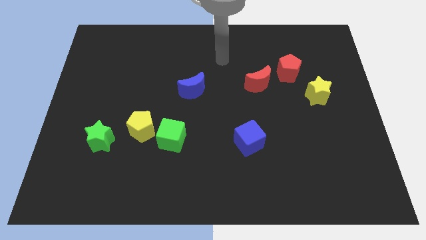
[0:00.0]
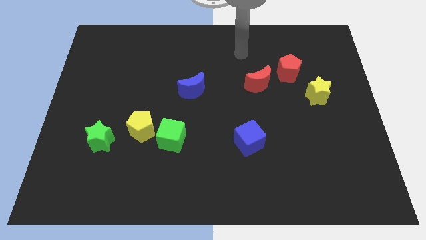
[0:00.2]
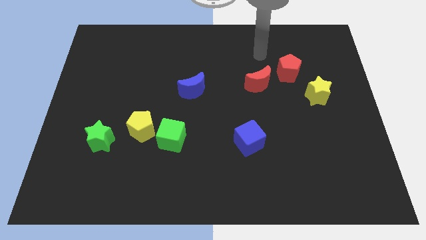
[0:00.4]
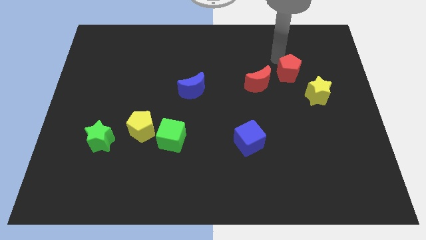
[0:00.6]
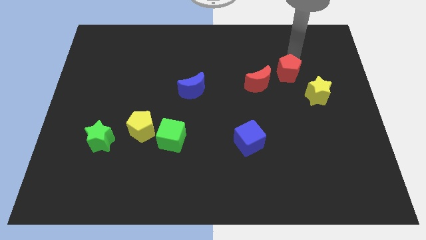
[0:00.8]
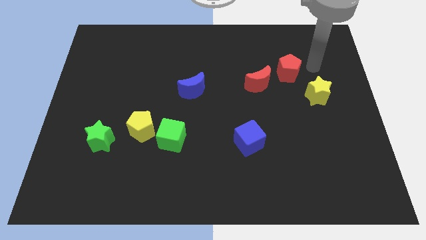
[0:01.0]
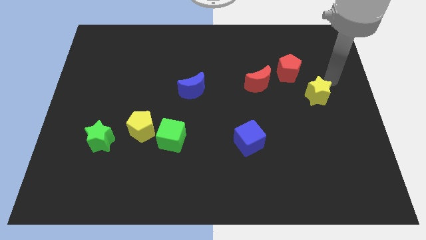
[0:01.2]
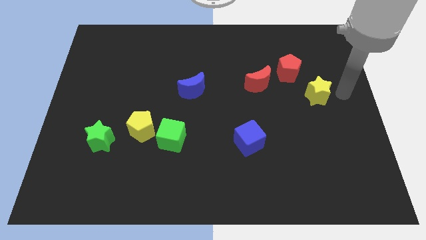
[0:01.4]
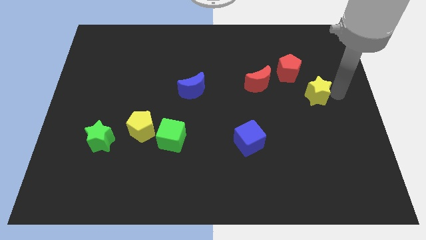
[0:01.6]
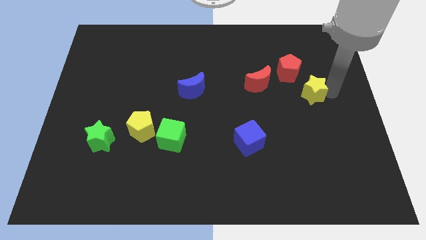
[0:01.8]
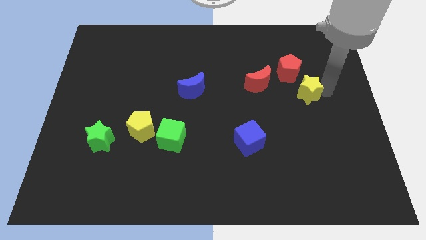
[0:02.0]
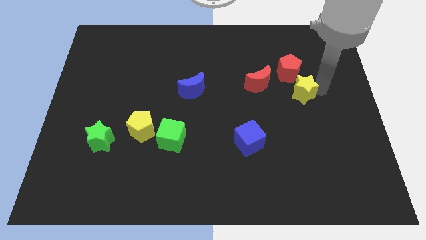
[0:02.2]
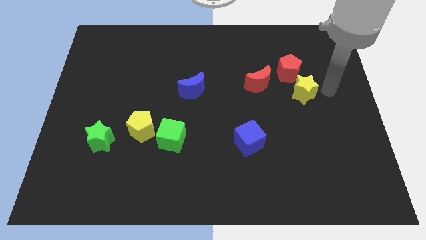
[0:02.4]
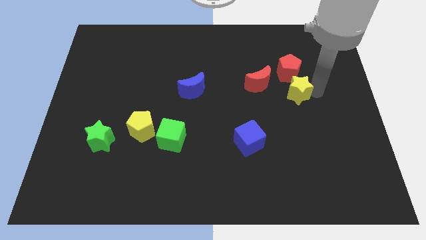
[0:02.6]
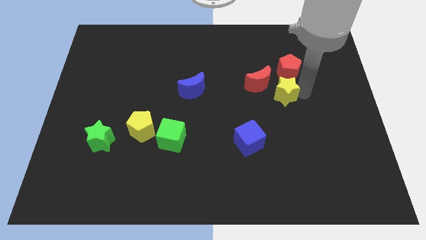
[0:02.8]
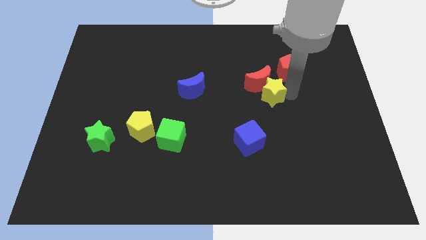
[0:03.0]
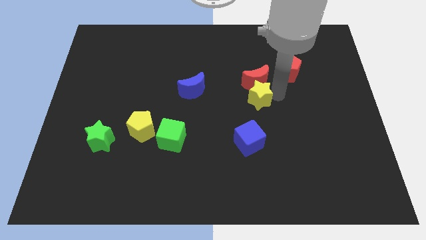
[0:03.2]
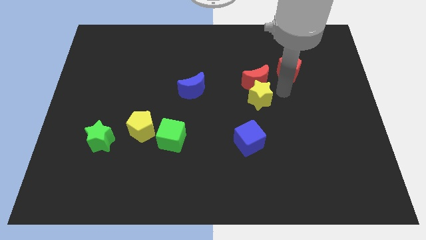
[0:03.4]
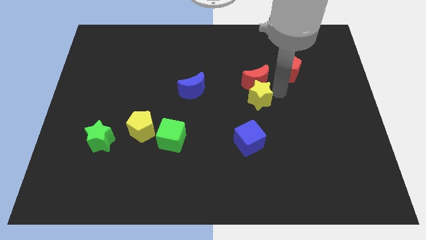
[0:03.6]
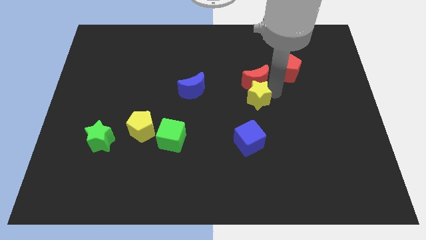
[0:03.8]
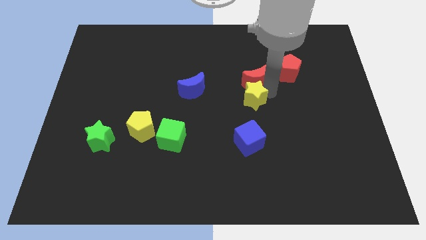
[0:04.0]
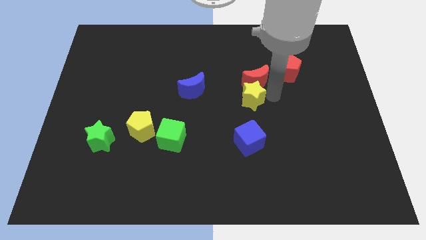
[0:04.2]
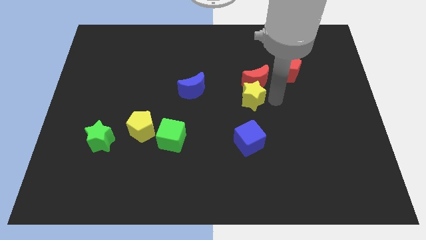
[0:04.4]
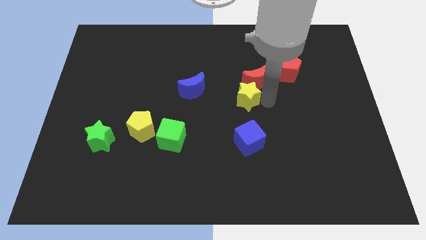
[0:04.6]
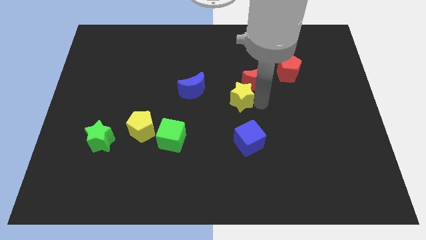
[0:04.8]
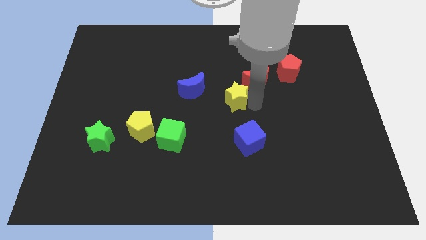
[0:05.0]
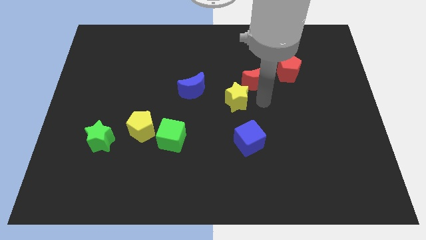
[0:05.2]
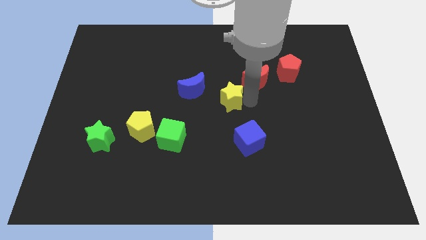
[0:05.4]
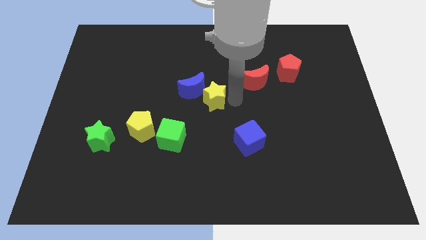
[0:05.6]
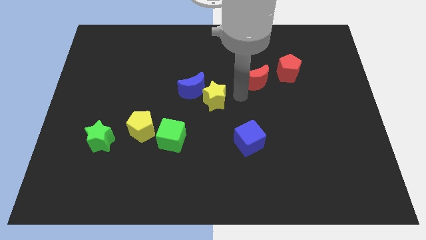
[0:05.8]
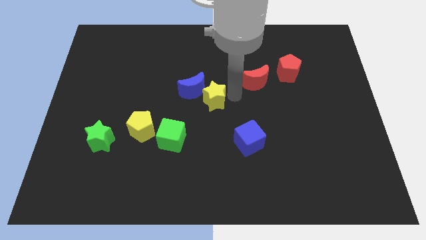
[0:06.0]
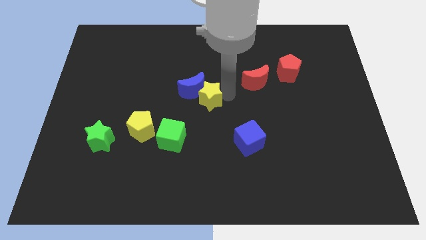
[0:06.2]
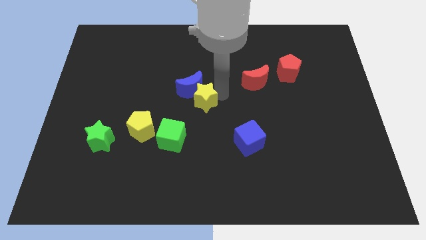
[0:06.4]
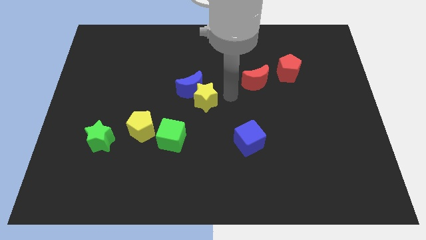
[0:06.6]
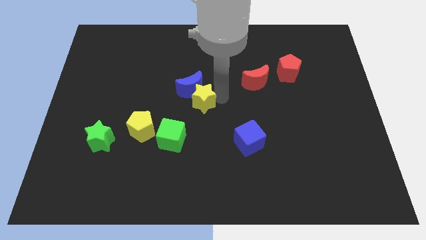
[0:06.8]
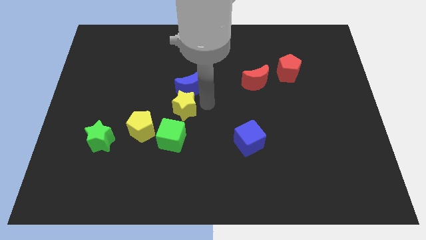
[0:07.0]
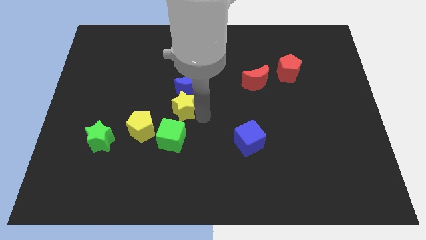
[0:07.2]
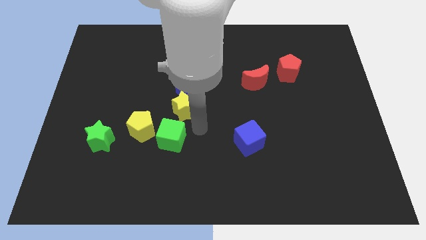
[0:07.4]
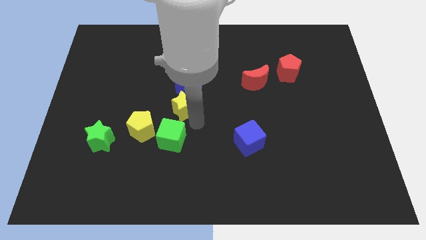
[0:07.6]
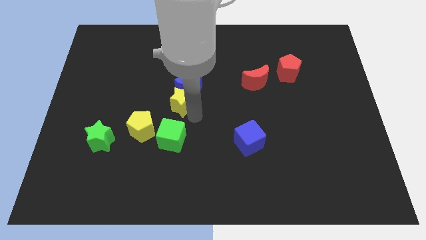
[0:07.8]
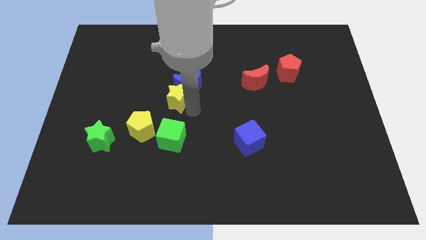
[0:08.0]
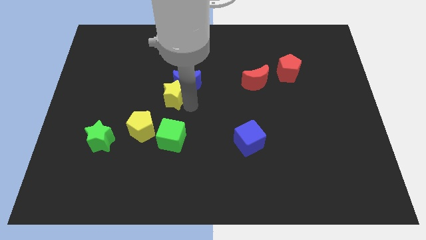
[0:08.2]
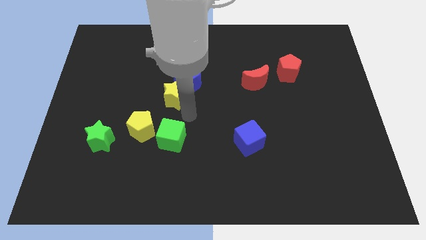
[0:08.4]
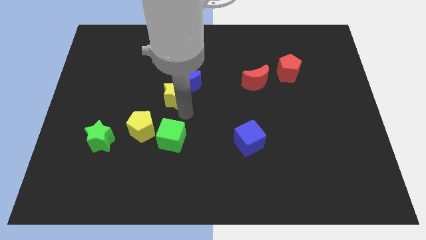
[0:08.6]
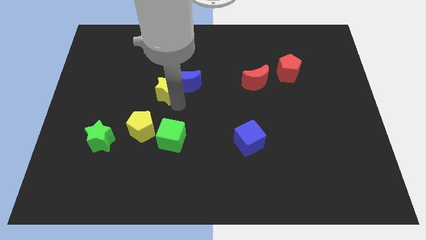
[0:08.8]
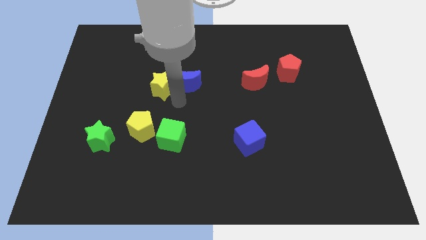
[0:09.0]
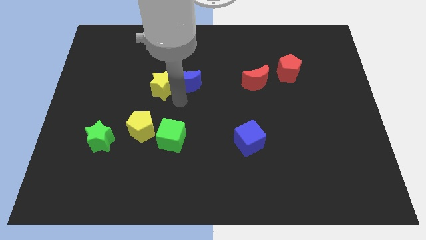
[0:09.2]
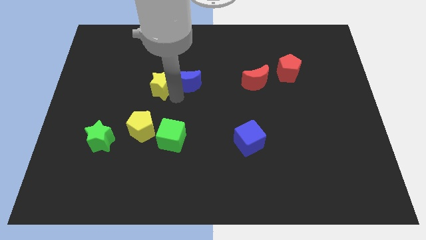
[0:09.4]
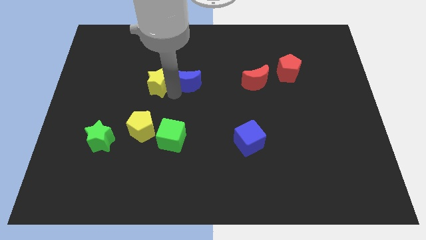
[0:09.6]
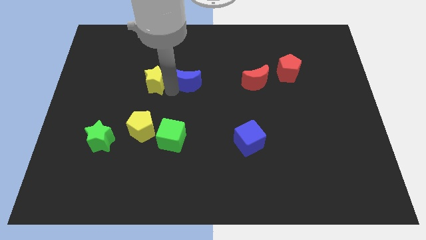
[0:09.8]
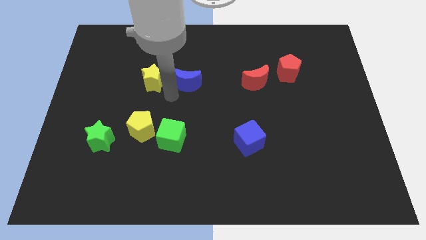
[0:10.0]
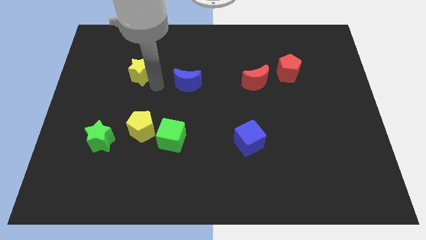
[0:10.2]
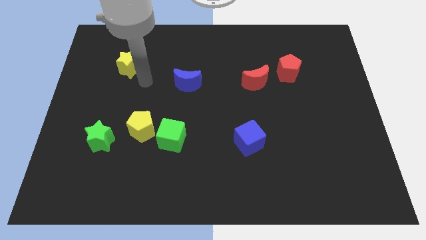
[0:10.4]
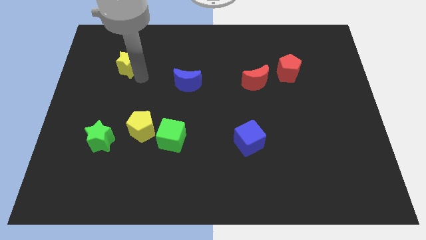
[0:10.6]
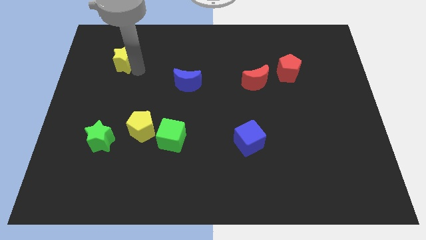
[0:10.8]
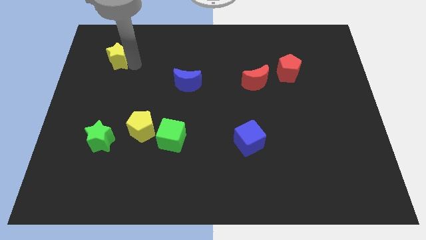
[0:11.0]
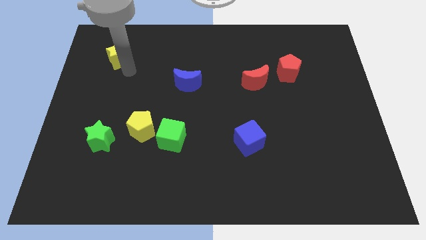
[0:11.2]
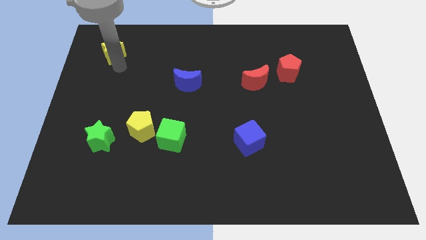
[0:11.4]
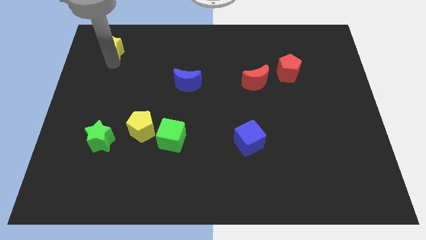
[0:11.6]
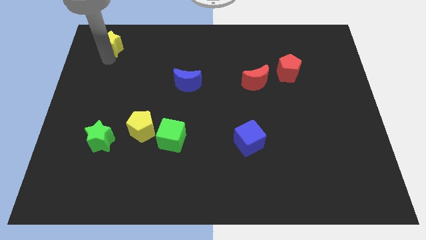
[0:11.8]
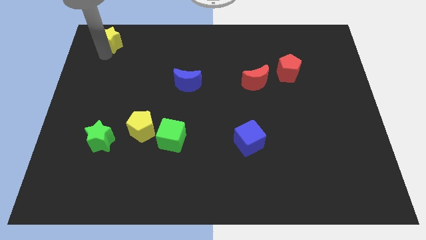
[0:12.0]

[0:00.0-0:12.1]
slide the yellow star to the top left

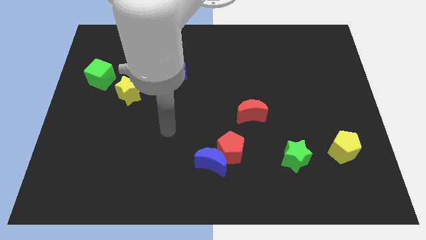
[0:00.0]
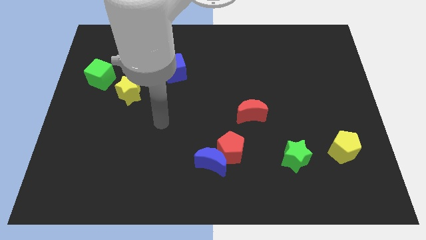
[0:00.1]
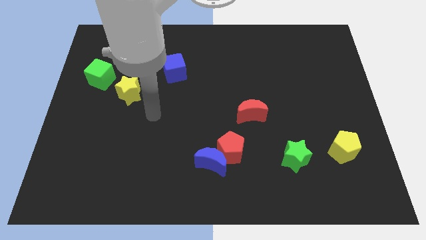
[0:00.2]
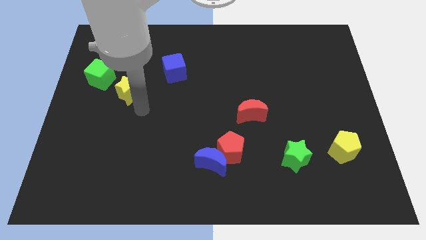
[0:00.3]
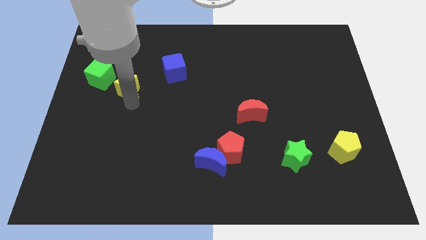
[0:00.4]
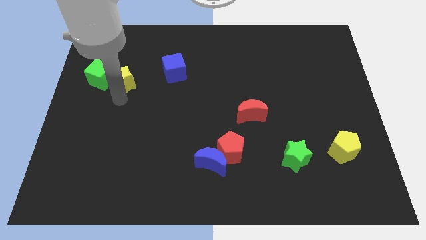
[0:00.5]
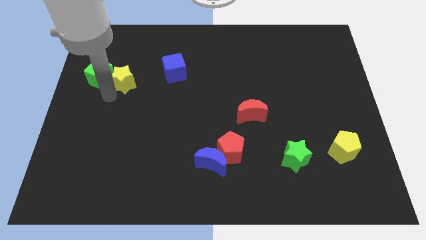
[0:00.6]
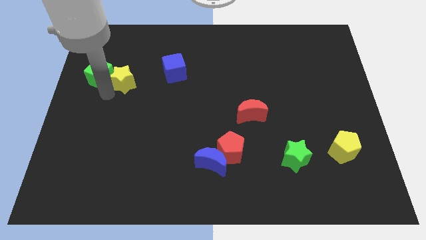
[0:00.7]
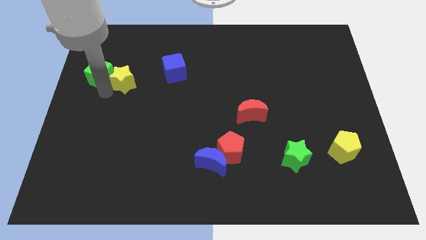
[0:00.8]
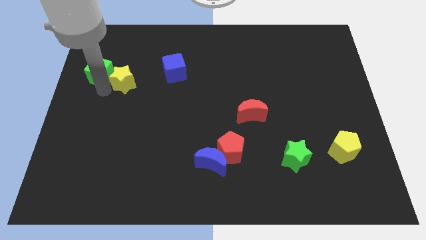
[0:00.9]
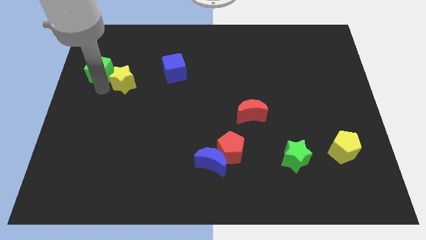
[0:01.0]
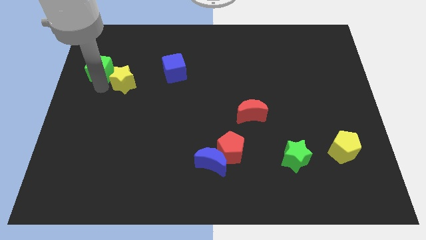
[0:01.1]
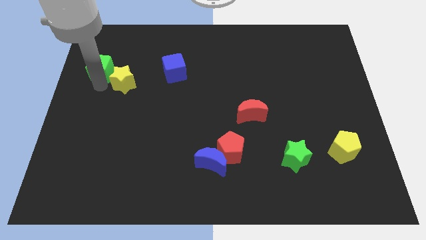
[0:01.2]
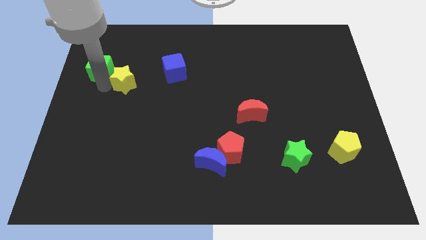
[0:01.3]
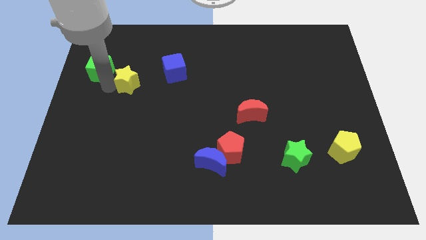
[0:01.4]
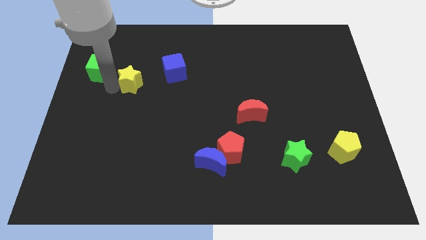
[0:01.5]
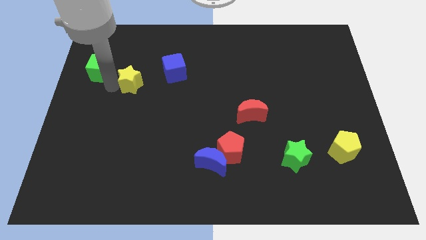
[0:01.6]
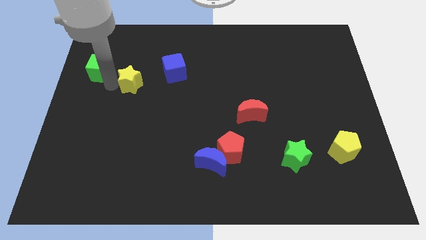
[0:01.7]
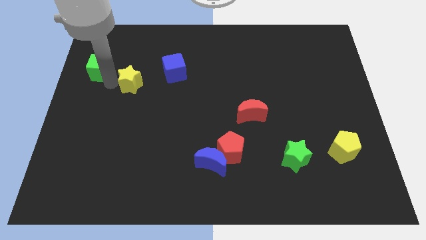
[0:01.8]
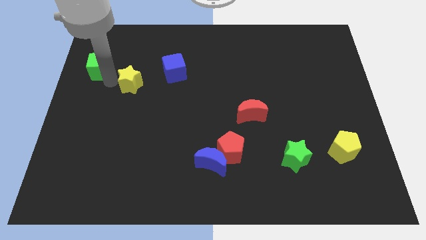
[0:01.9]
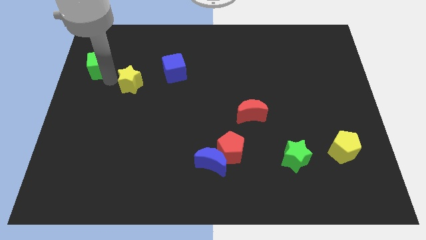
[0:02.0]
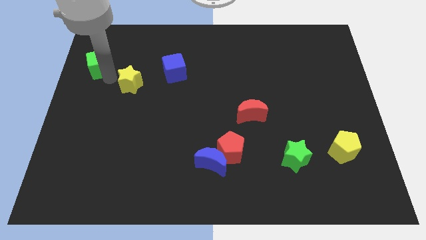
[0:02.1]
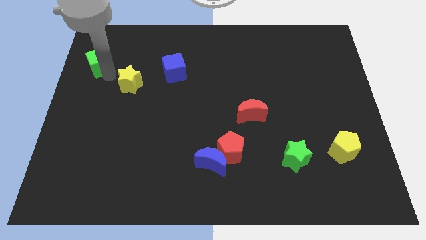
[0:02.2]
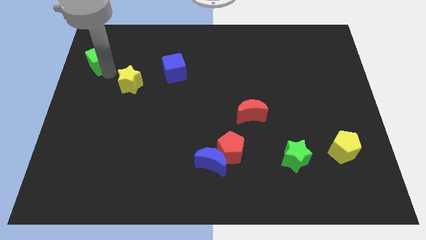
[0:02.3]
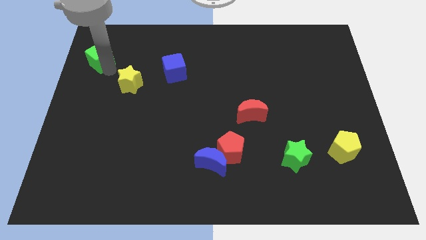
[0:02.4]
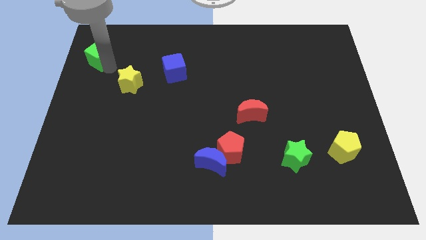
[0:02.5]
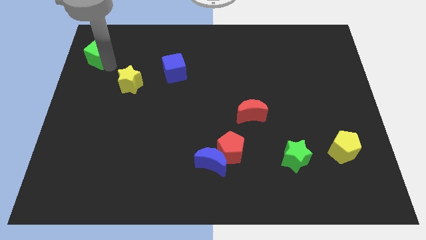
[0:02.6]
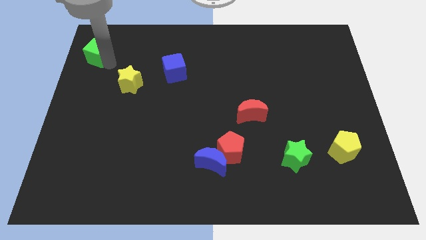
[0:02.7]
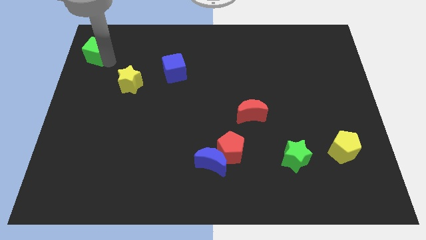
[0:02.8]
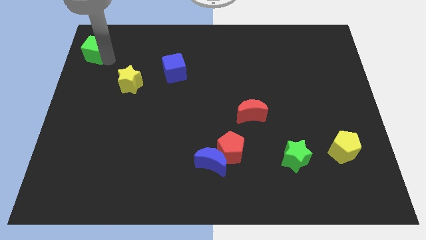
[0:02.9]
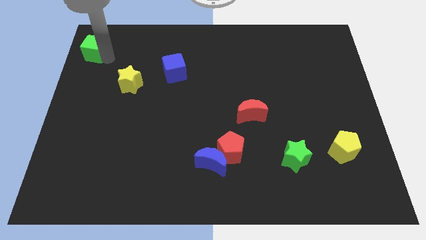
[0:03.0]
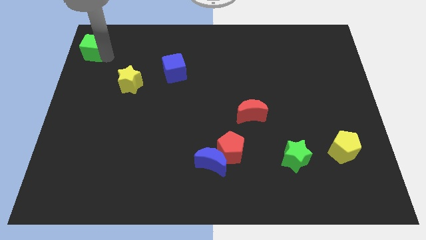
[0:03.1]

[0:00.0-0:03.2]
put the green cube to the upper left corner
